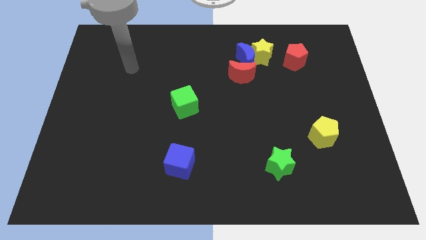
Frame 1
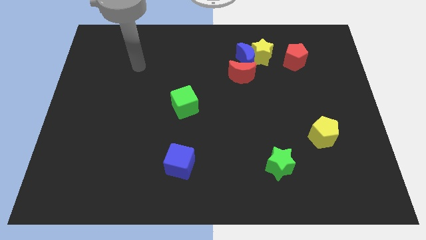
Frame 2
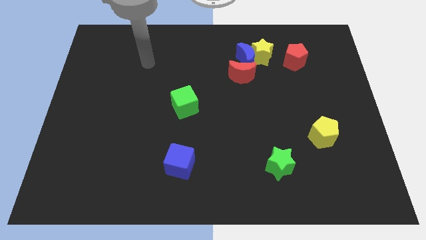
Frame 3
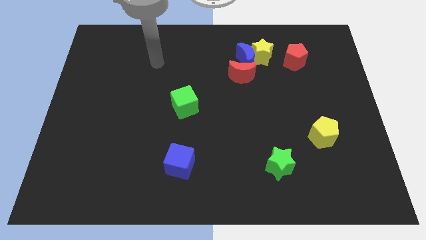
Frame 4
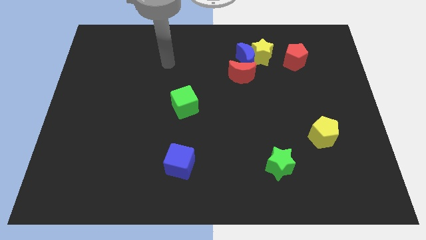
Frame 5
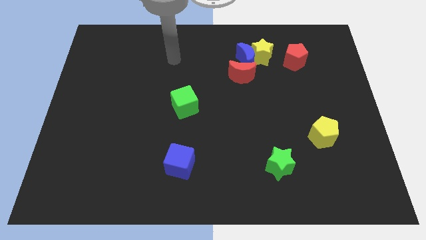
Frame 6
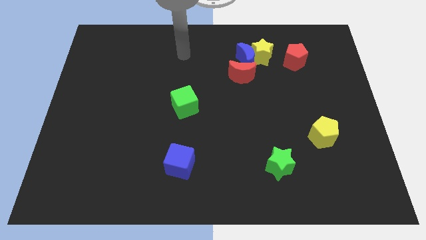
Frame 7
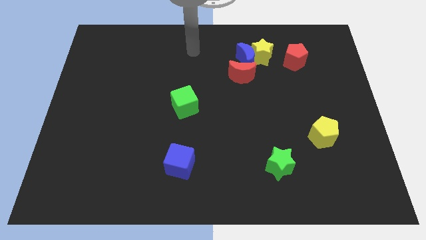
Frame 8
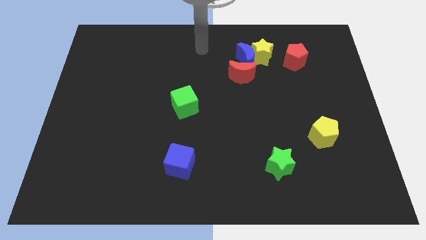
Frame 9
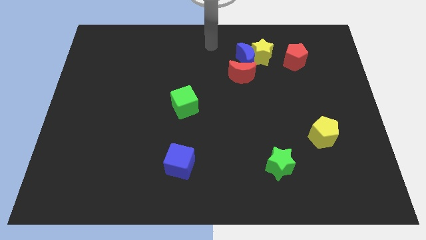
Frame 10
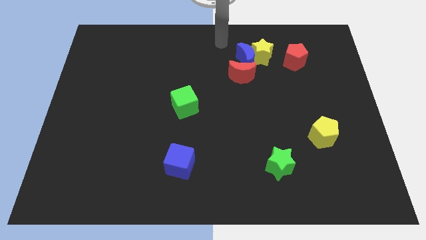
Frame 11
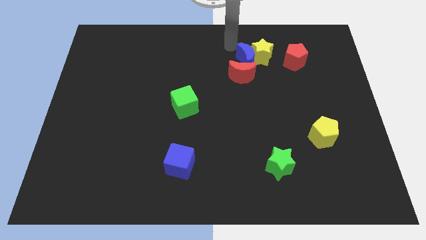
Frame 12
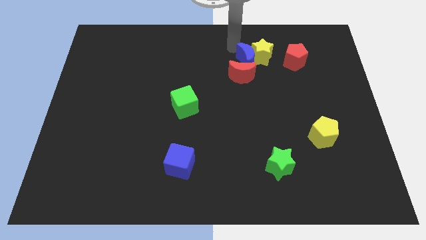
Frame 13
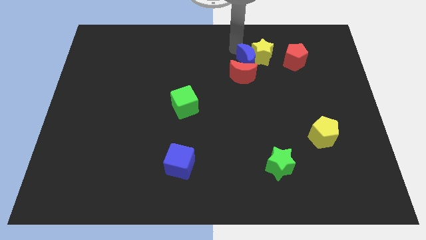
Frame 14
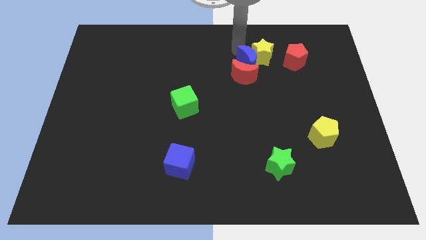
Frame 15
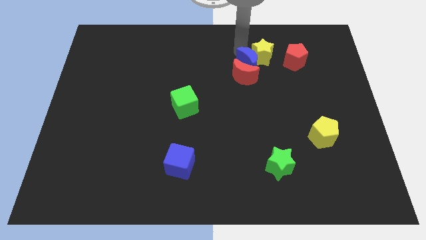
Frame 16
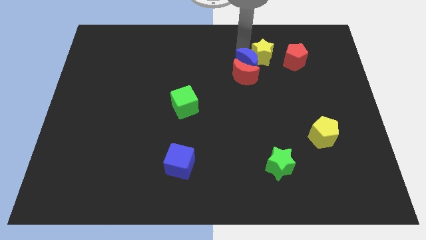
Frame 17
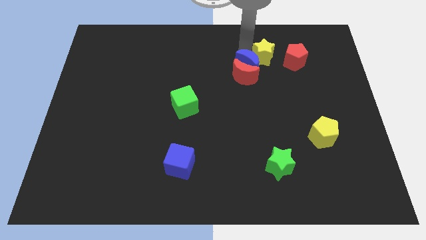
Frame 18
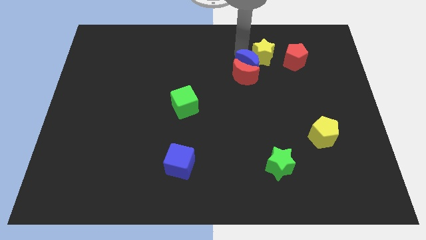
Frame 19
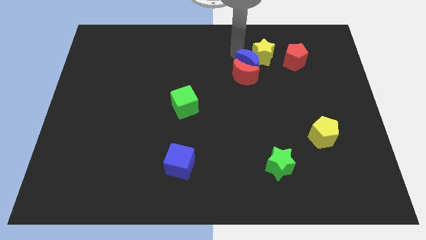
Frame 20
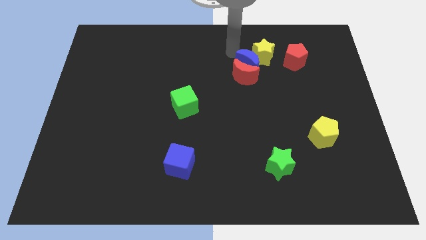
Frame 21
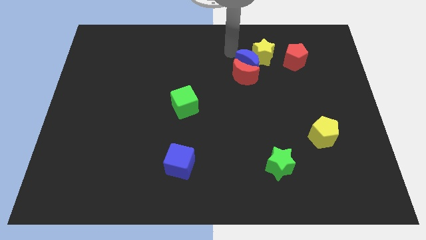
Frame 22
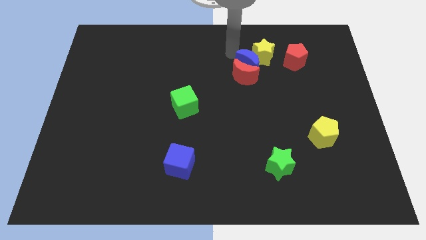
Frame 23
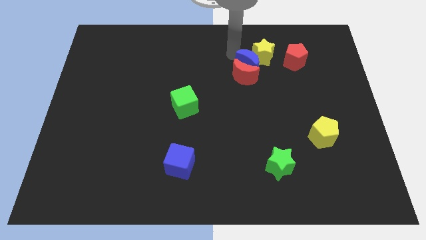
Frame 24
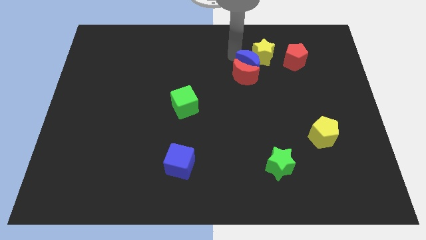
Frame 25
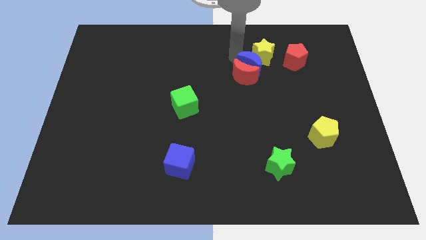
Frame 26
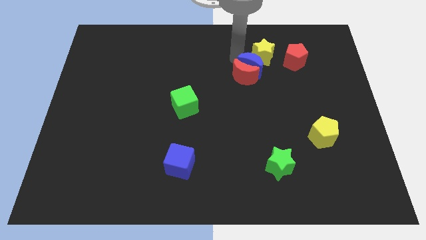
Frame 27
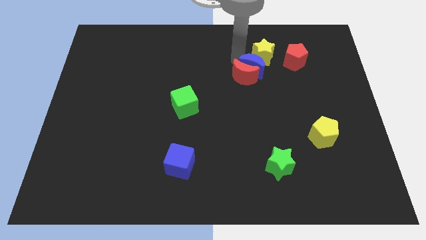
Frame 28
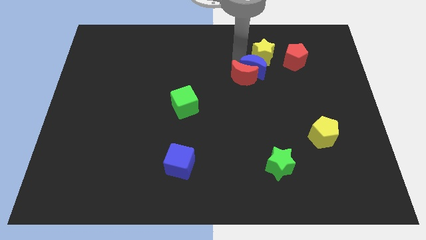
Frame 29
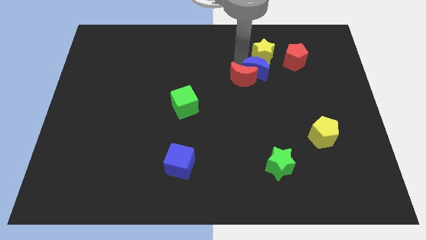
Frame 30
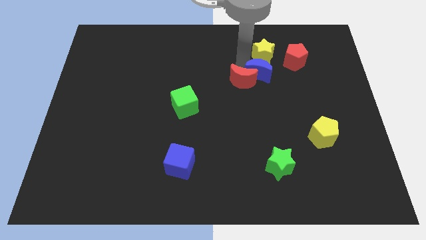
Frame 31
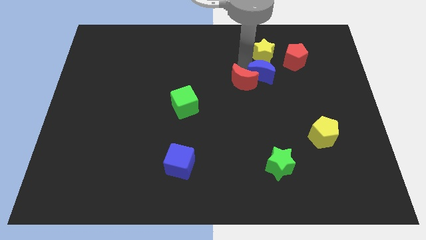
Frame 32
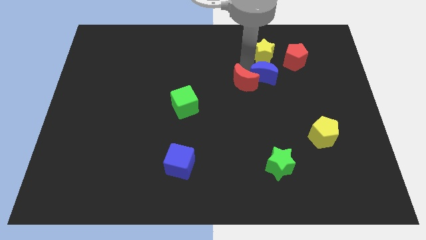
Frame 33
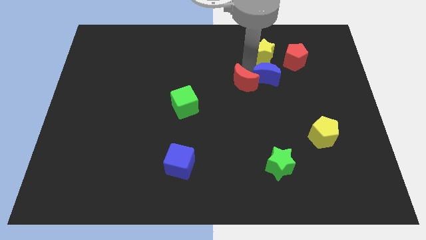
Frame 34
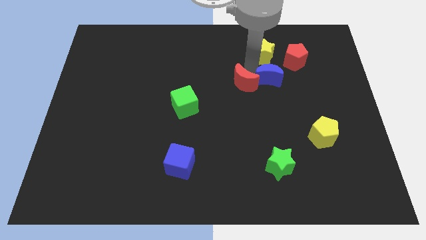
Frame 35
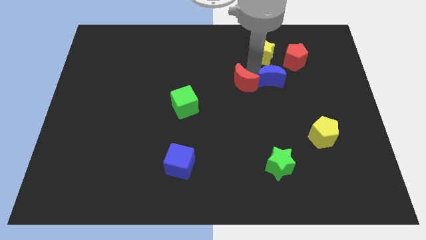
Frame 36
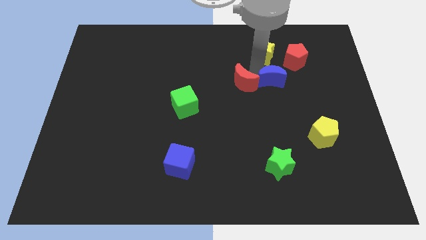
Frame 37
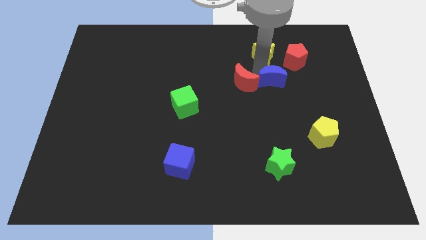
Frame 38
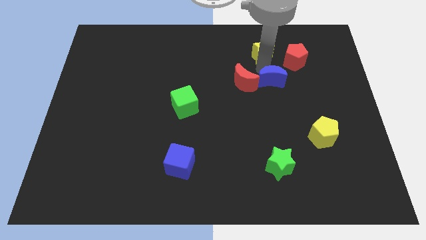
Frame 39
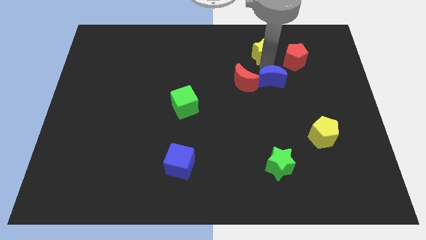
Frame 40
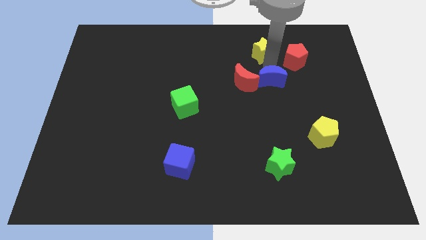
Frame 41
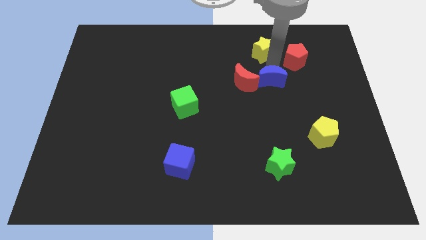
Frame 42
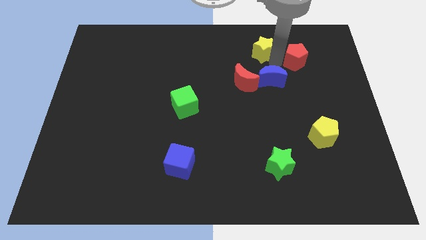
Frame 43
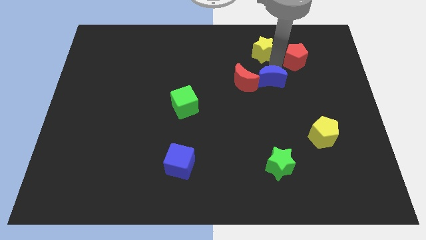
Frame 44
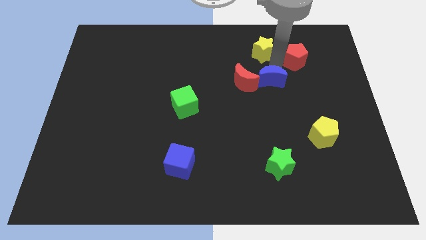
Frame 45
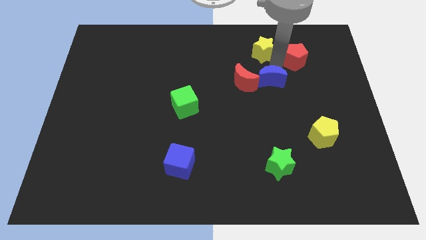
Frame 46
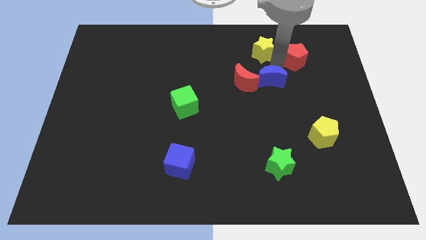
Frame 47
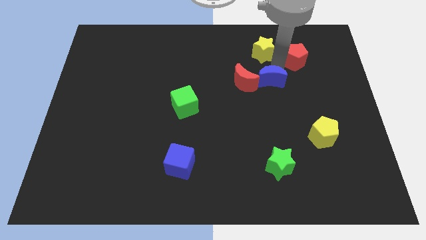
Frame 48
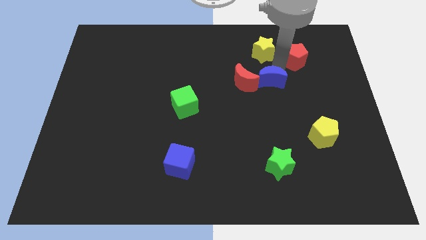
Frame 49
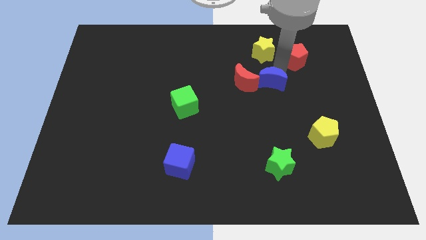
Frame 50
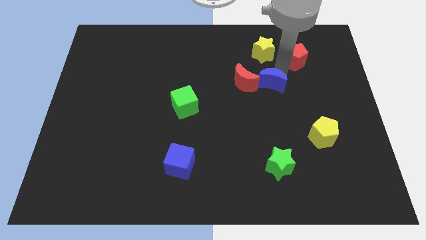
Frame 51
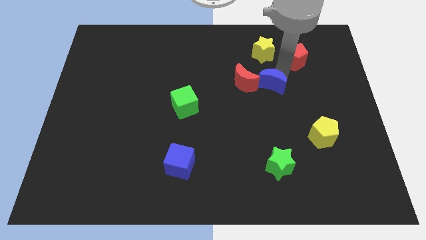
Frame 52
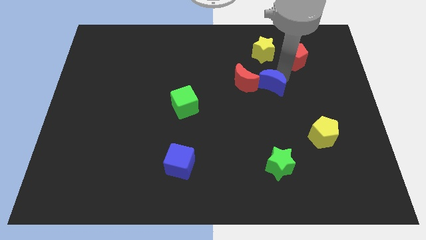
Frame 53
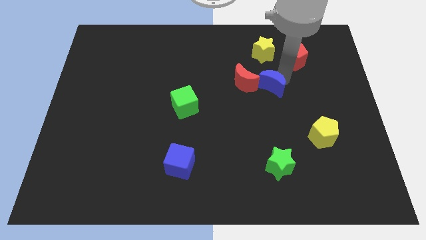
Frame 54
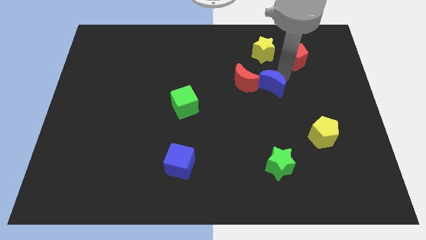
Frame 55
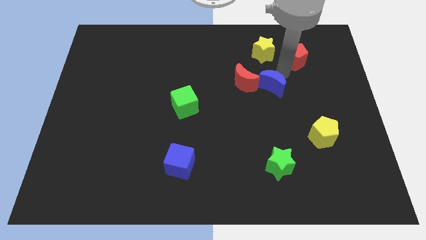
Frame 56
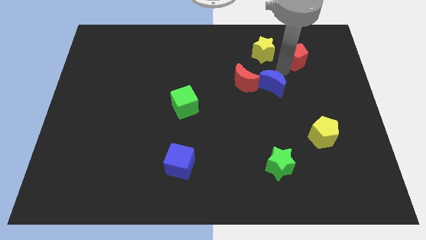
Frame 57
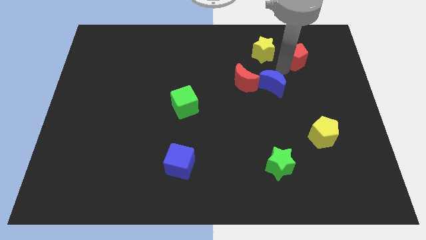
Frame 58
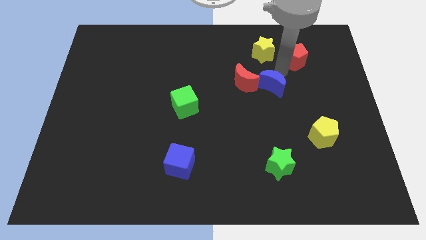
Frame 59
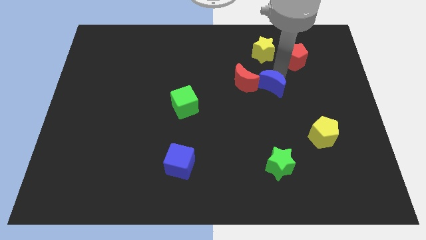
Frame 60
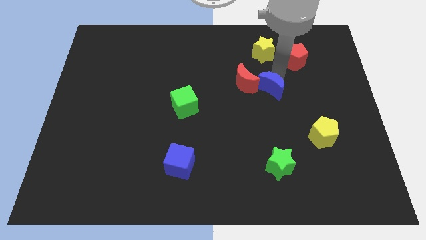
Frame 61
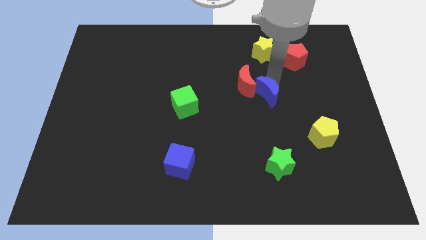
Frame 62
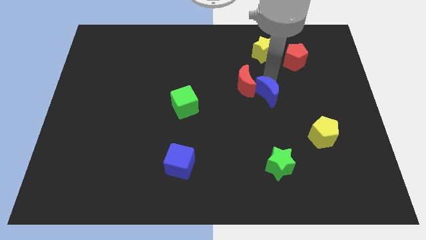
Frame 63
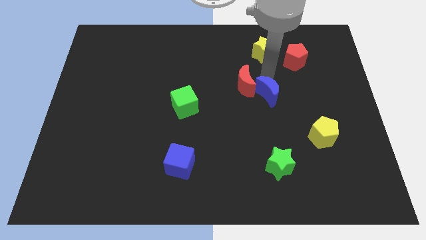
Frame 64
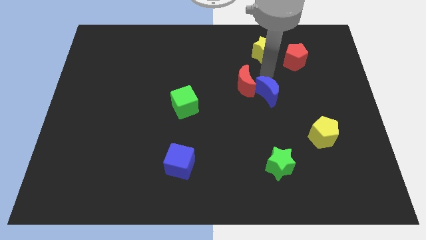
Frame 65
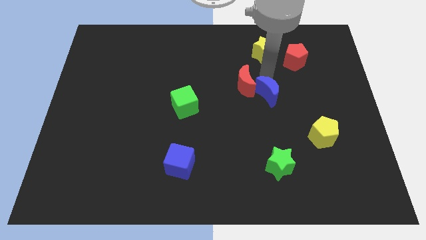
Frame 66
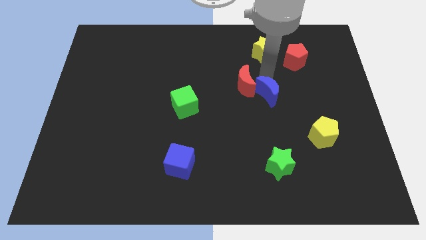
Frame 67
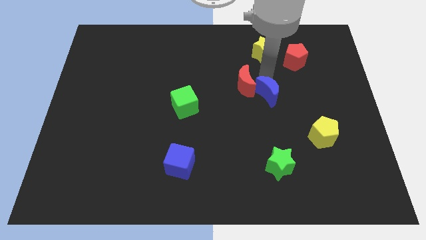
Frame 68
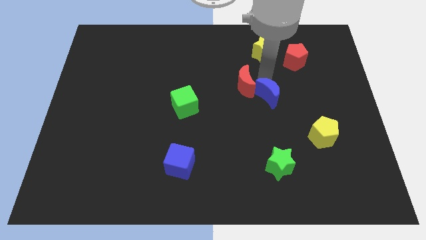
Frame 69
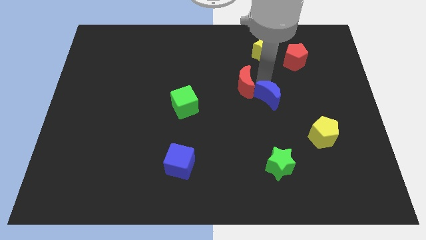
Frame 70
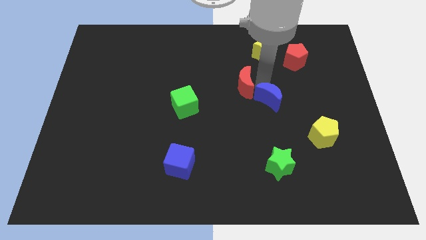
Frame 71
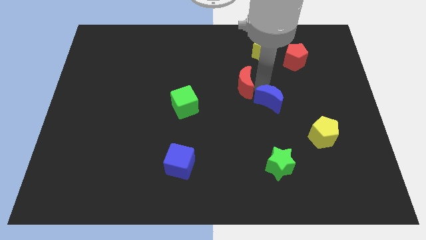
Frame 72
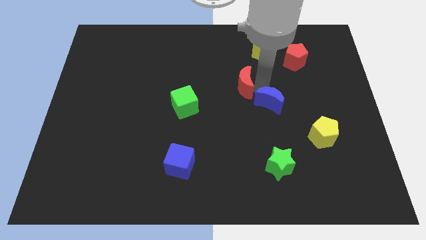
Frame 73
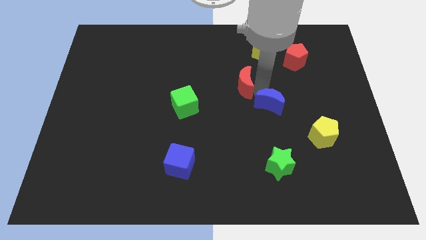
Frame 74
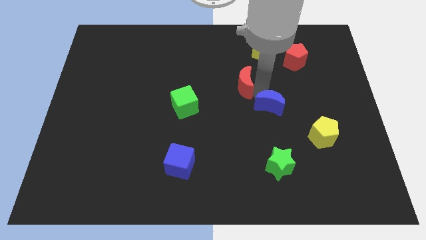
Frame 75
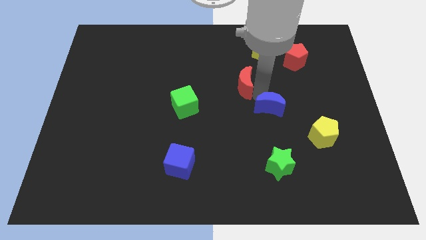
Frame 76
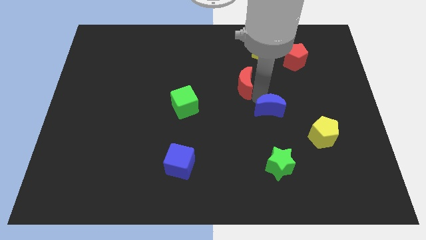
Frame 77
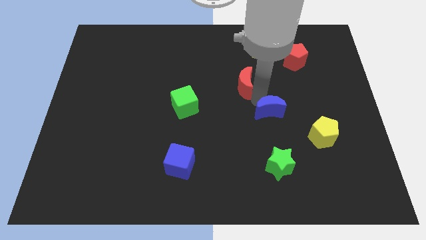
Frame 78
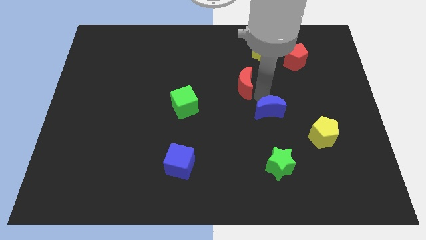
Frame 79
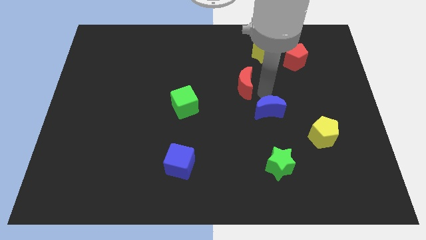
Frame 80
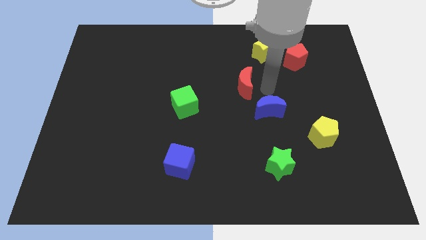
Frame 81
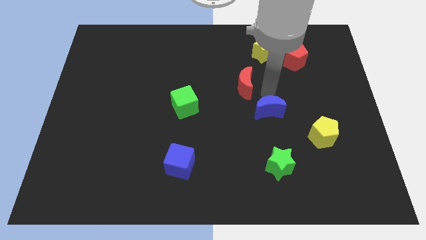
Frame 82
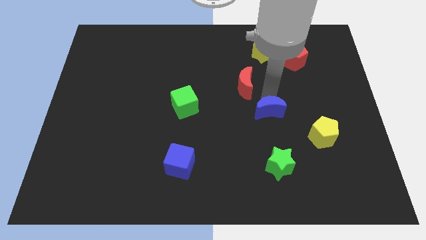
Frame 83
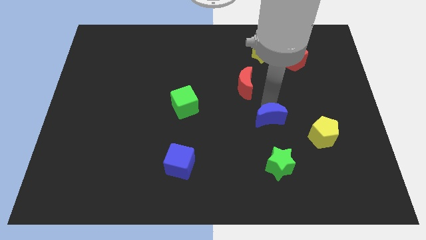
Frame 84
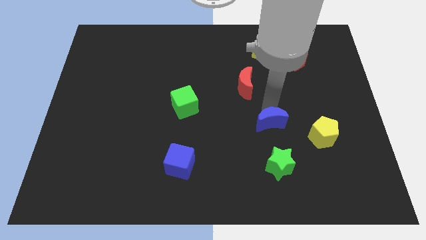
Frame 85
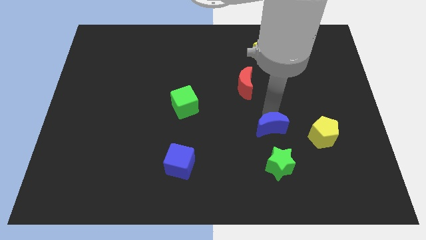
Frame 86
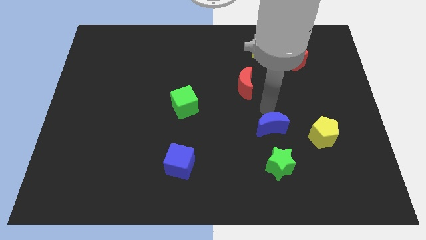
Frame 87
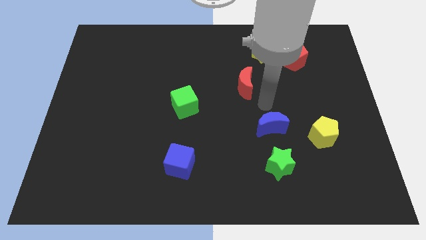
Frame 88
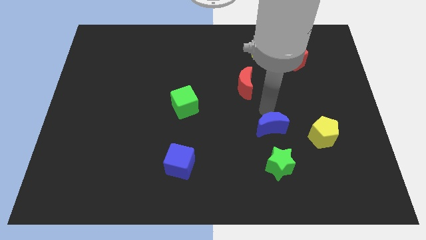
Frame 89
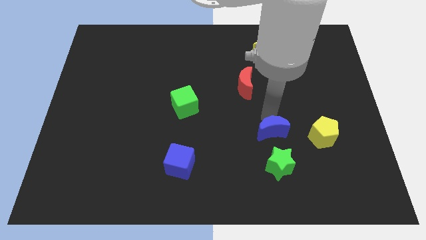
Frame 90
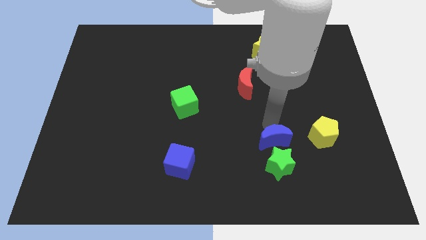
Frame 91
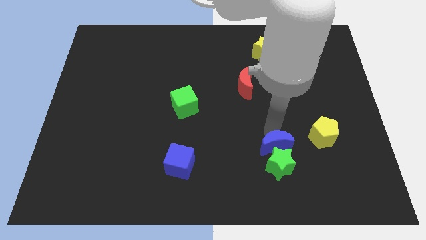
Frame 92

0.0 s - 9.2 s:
slide the blue moon next to the green star
